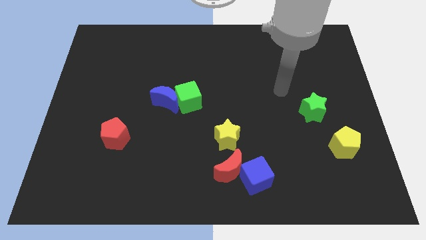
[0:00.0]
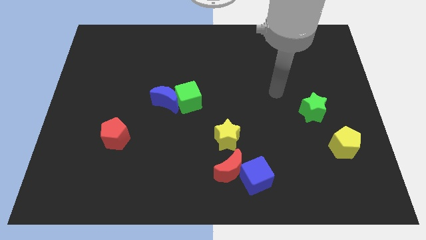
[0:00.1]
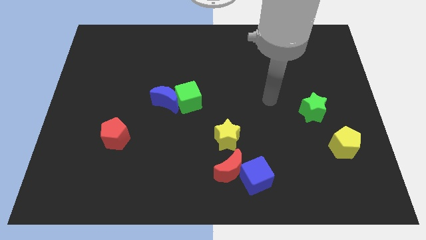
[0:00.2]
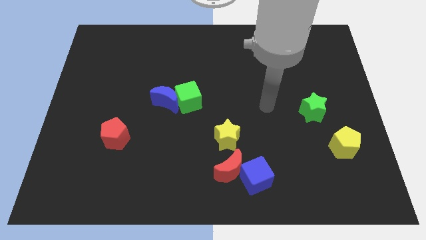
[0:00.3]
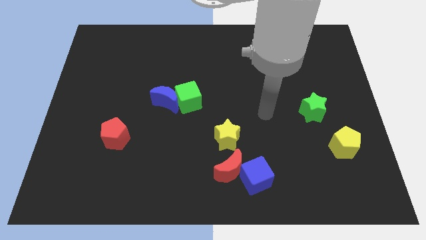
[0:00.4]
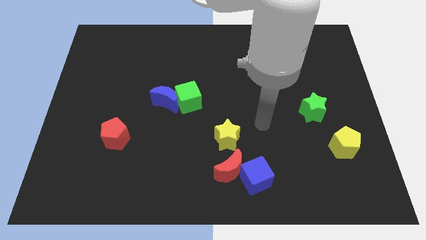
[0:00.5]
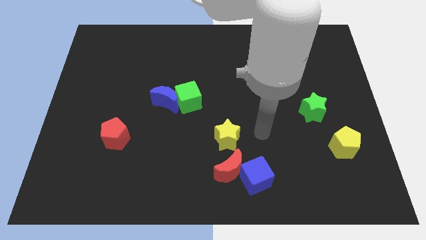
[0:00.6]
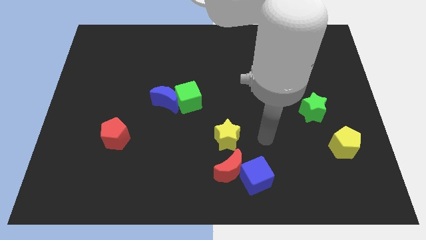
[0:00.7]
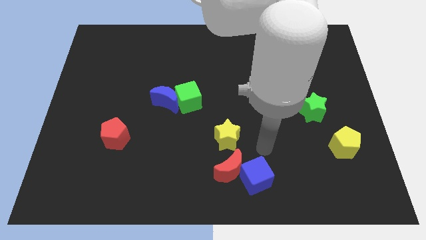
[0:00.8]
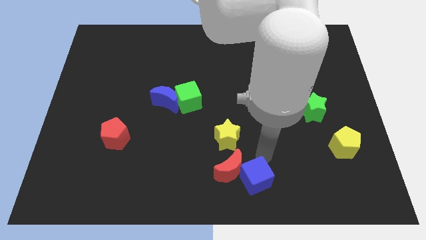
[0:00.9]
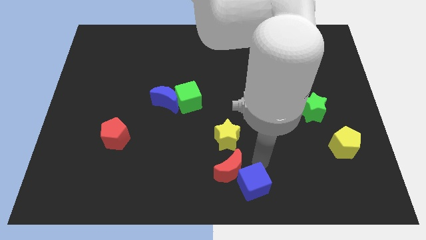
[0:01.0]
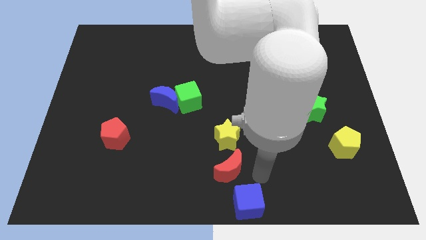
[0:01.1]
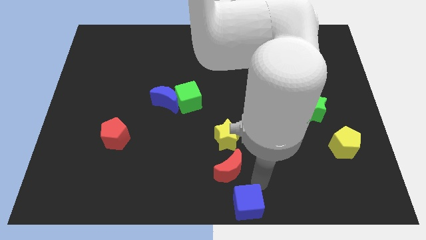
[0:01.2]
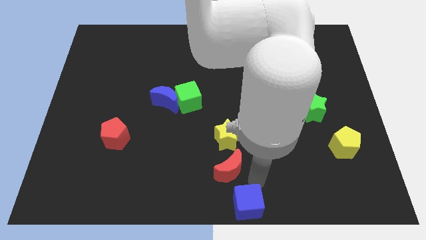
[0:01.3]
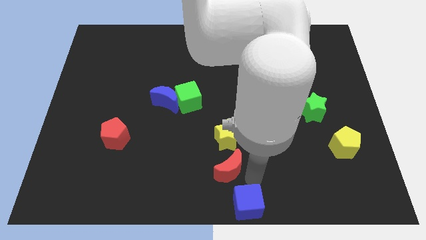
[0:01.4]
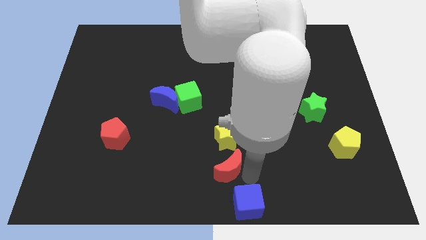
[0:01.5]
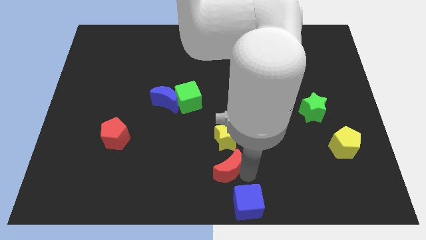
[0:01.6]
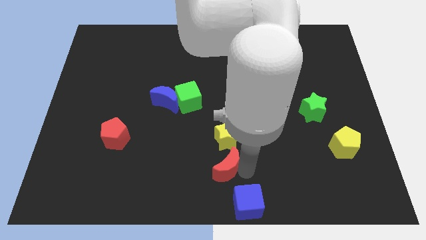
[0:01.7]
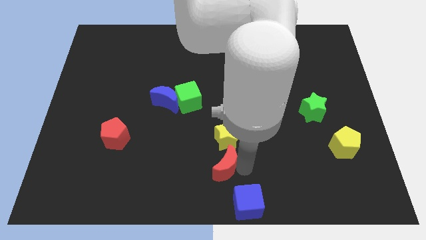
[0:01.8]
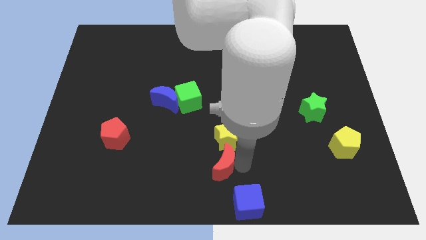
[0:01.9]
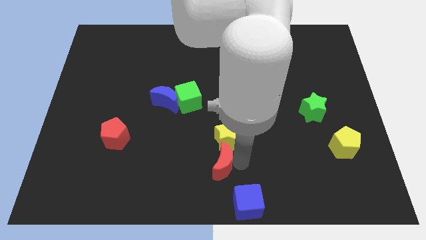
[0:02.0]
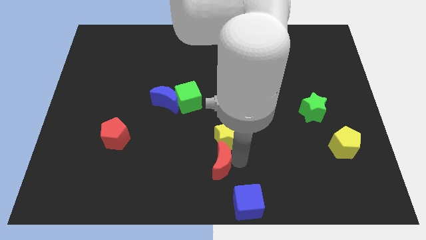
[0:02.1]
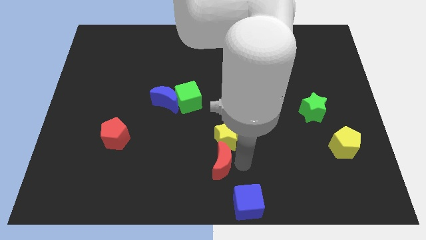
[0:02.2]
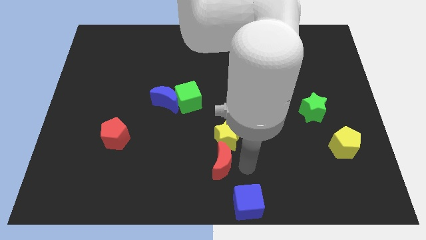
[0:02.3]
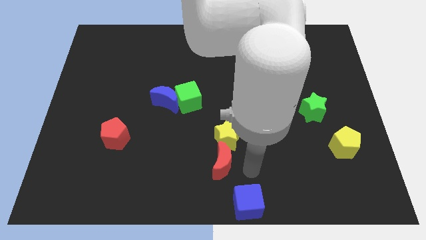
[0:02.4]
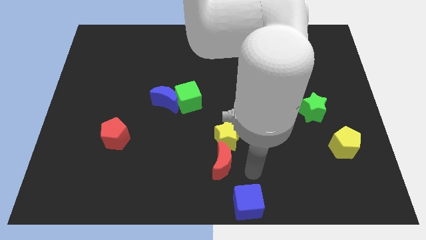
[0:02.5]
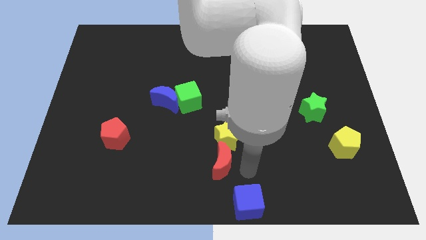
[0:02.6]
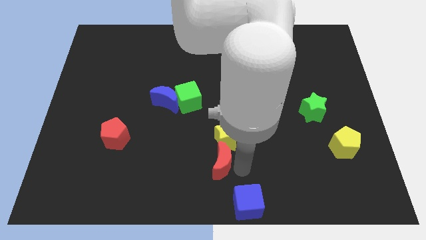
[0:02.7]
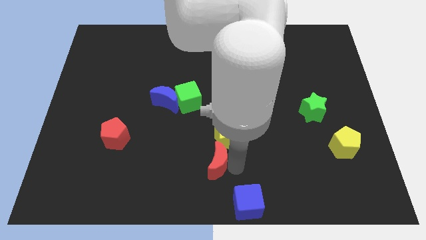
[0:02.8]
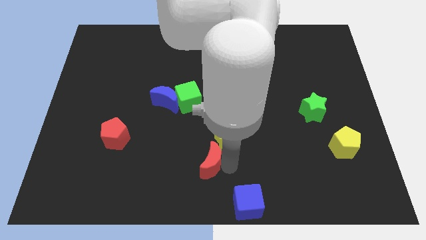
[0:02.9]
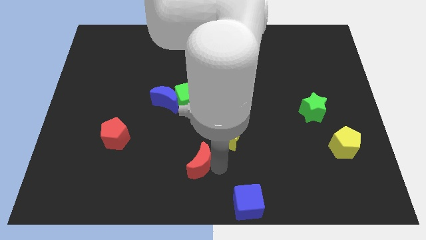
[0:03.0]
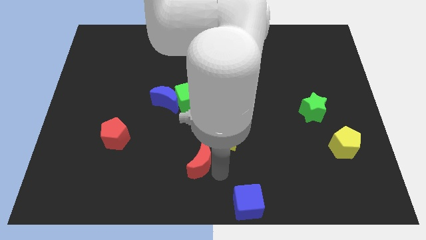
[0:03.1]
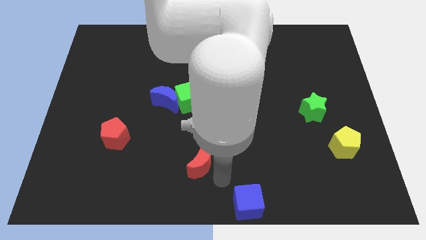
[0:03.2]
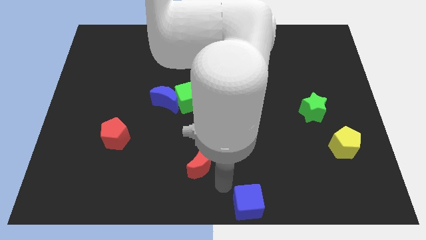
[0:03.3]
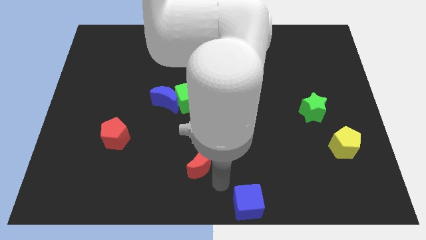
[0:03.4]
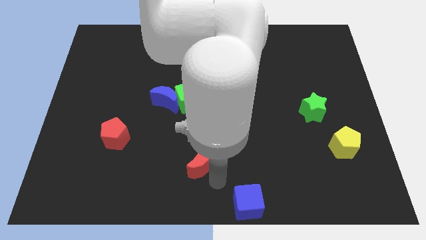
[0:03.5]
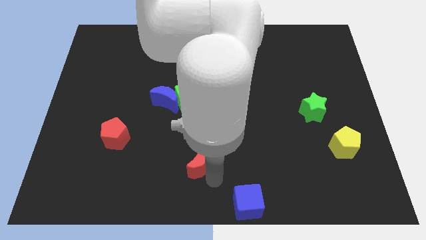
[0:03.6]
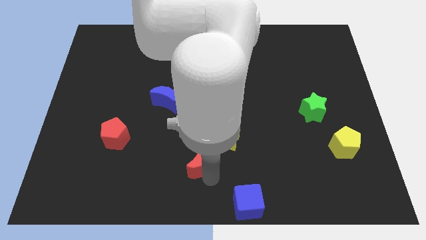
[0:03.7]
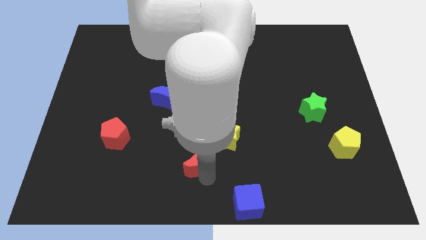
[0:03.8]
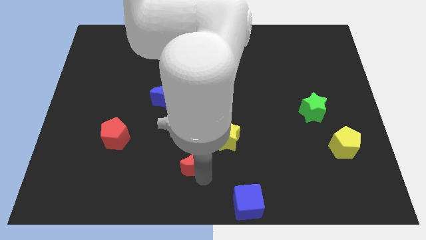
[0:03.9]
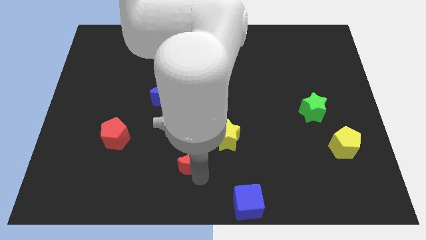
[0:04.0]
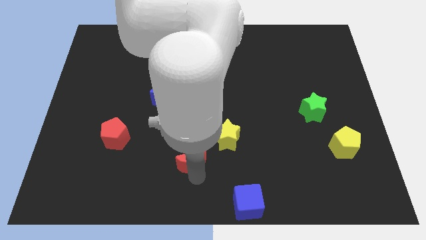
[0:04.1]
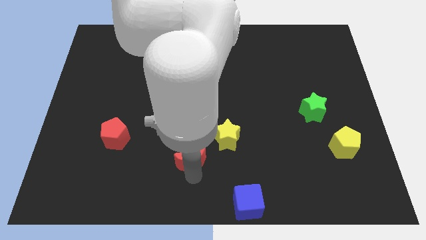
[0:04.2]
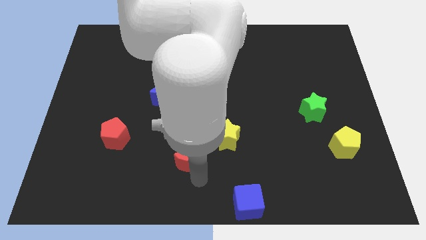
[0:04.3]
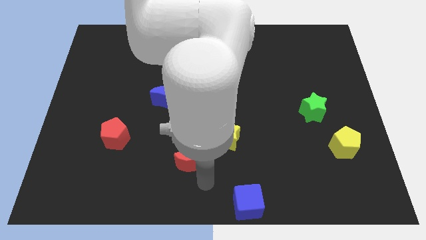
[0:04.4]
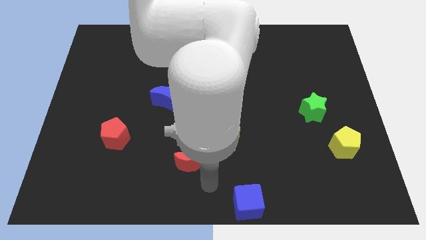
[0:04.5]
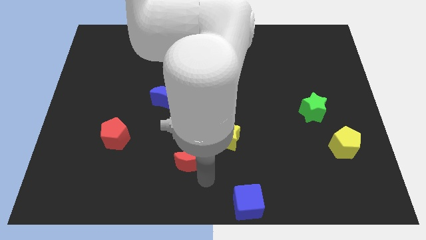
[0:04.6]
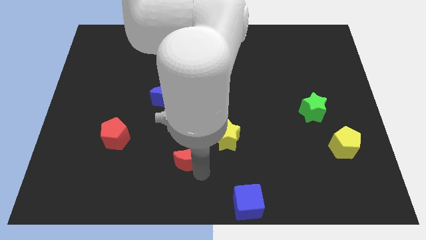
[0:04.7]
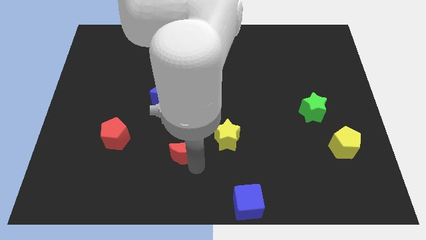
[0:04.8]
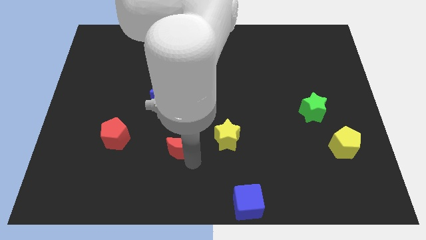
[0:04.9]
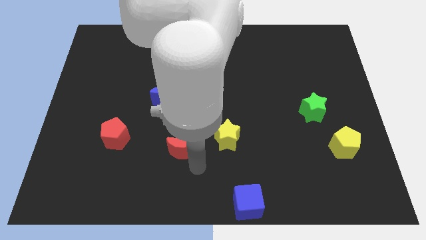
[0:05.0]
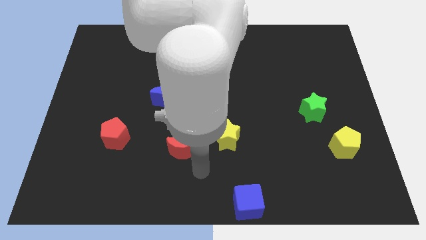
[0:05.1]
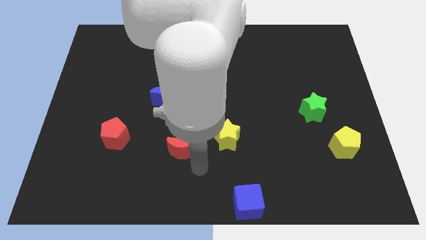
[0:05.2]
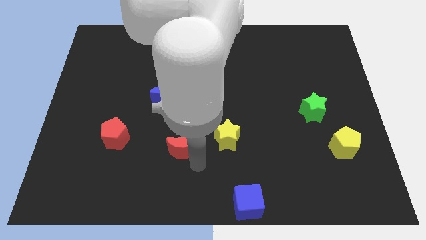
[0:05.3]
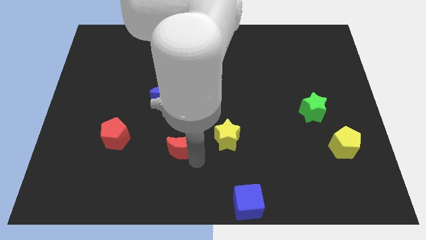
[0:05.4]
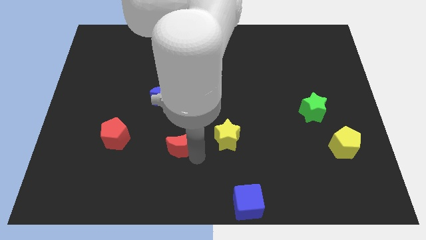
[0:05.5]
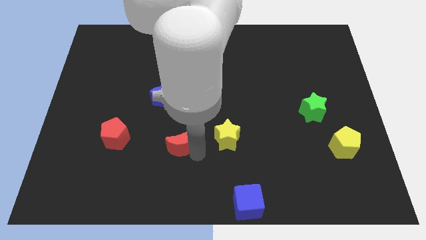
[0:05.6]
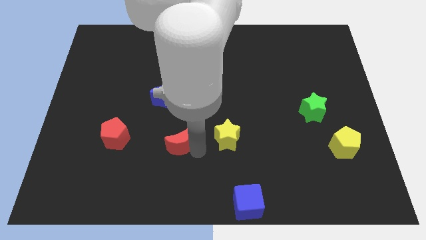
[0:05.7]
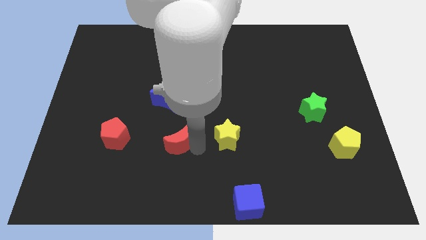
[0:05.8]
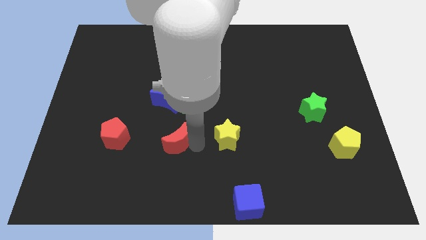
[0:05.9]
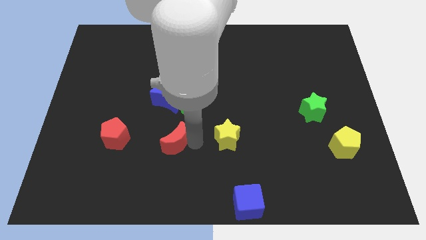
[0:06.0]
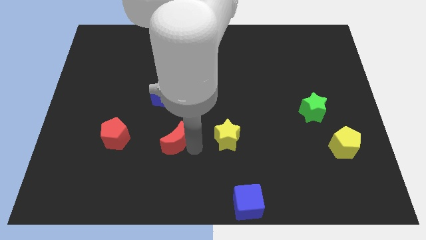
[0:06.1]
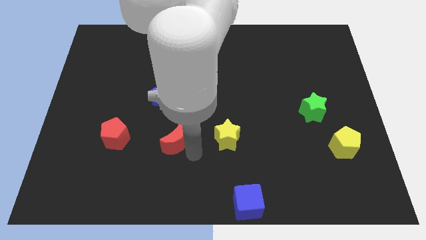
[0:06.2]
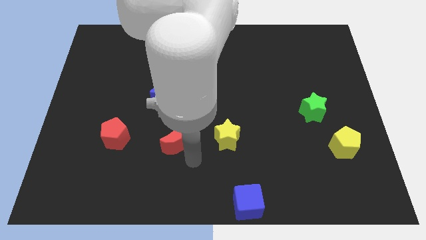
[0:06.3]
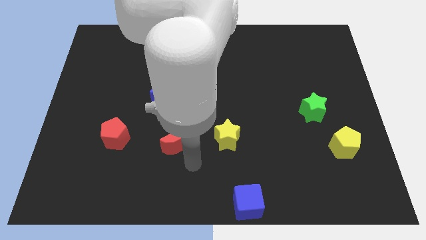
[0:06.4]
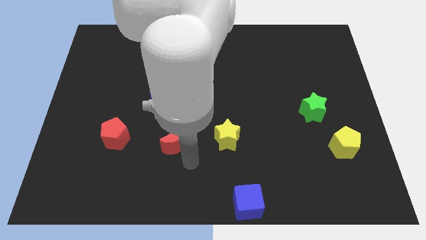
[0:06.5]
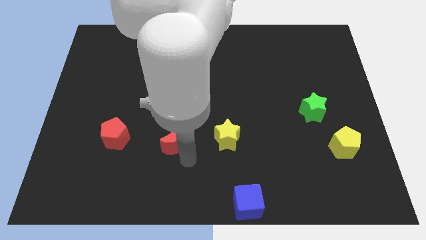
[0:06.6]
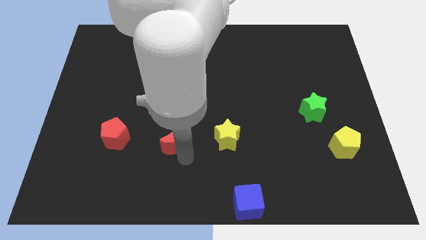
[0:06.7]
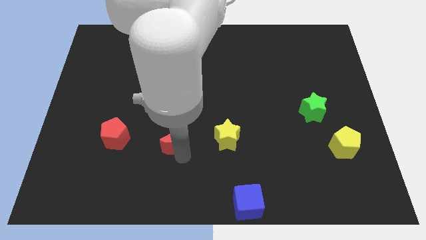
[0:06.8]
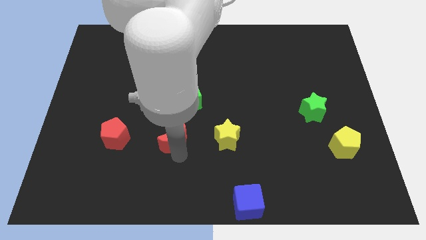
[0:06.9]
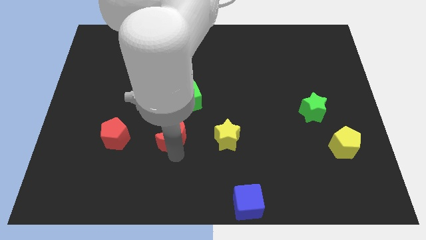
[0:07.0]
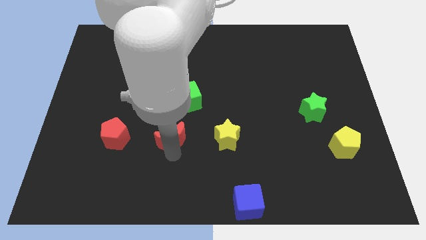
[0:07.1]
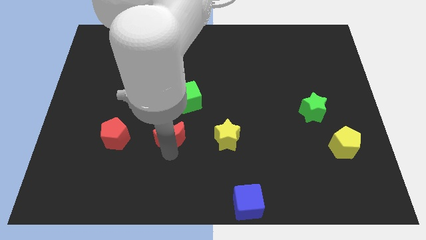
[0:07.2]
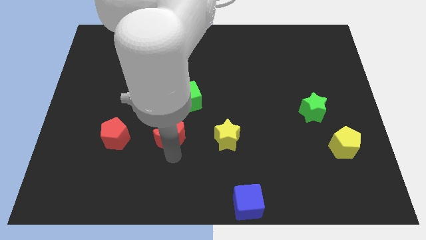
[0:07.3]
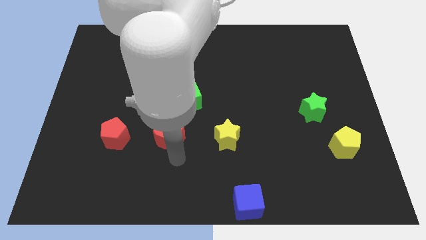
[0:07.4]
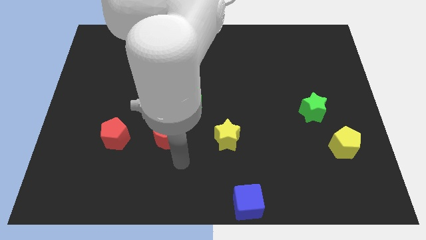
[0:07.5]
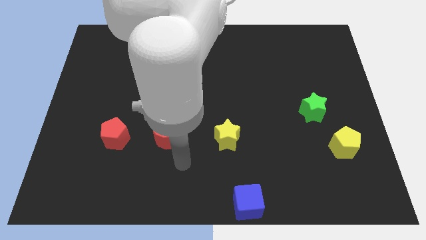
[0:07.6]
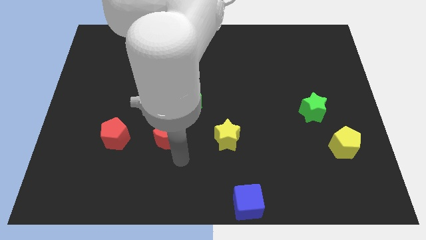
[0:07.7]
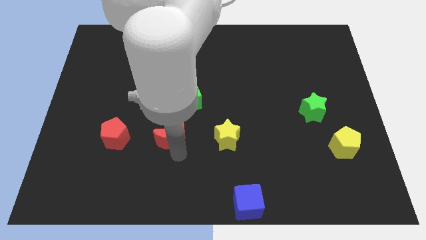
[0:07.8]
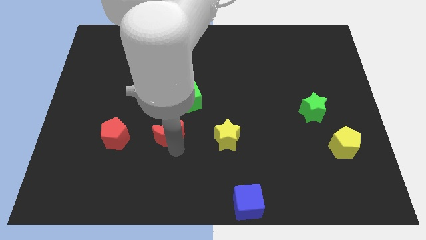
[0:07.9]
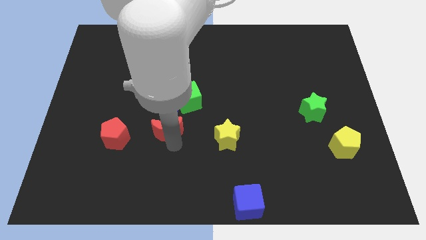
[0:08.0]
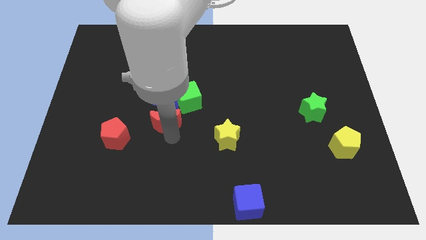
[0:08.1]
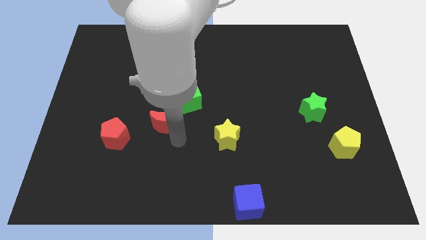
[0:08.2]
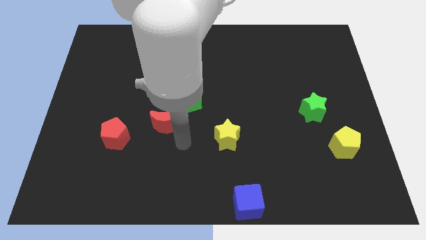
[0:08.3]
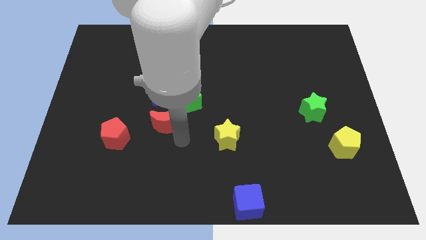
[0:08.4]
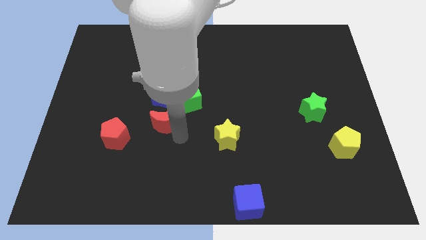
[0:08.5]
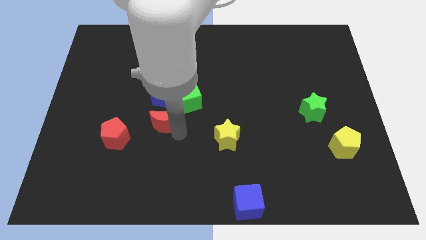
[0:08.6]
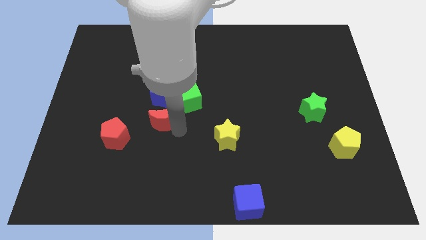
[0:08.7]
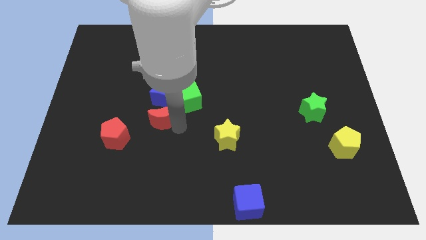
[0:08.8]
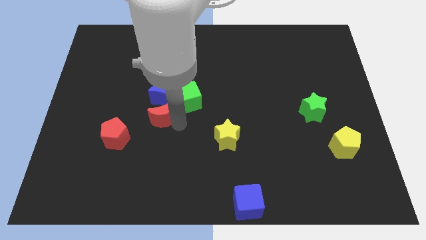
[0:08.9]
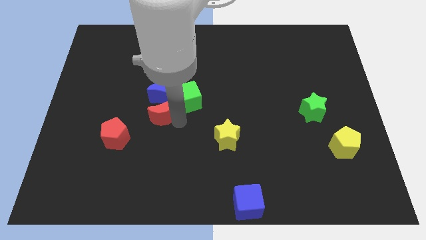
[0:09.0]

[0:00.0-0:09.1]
put the red moon to the left side of the green cube
